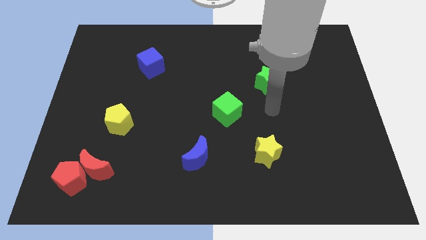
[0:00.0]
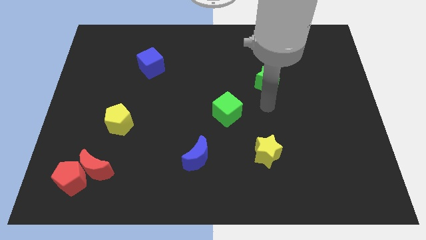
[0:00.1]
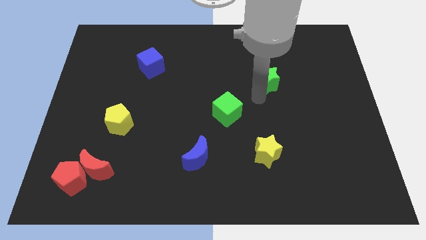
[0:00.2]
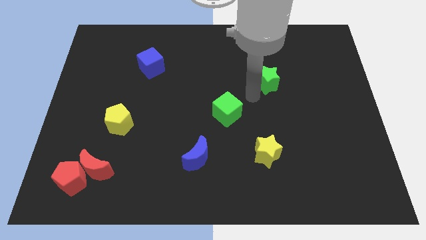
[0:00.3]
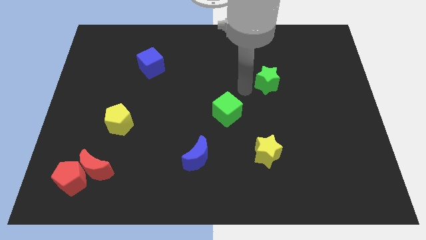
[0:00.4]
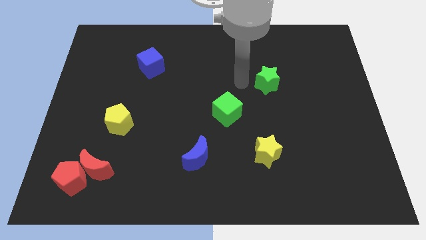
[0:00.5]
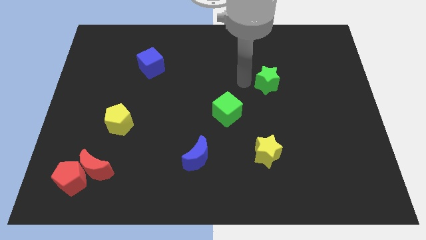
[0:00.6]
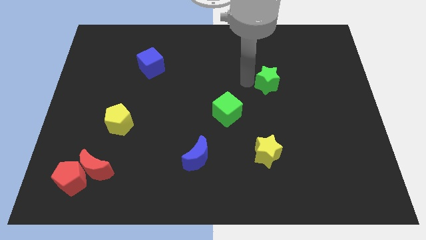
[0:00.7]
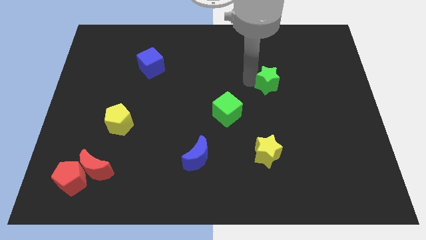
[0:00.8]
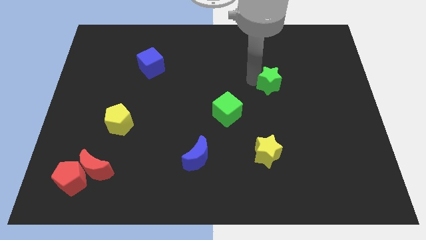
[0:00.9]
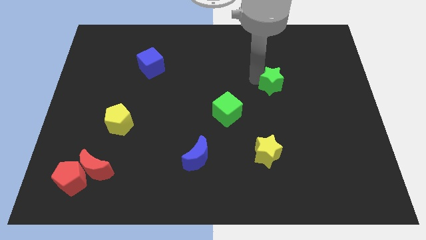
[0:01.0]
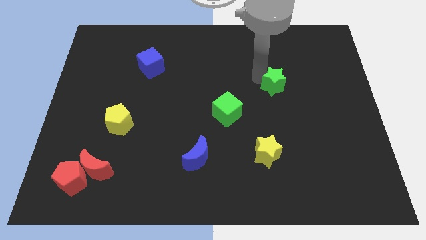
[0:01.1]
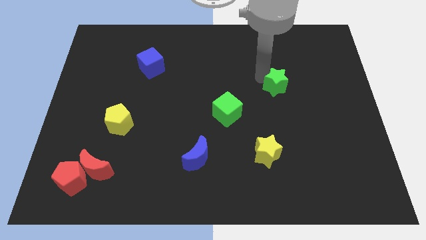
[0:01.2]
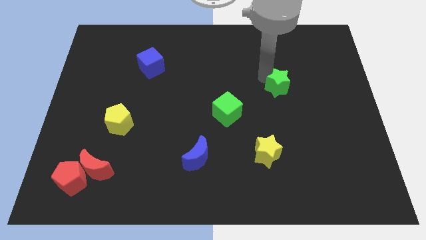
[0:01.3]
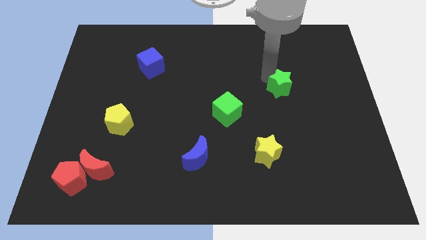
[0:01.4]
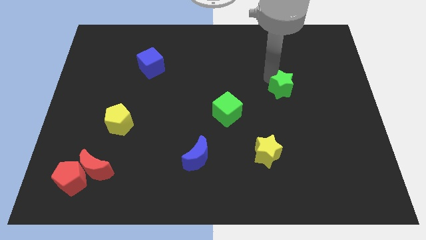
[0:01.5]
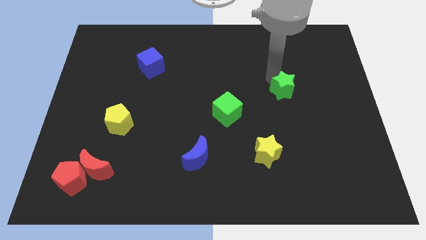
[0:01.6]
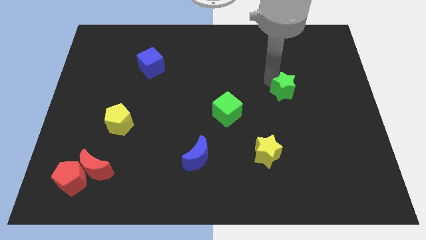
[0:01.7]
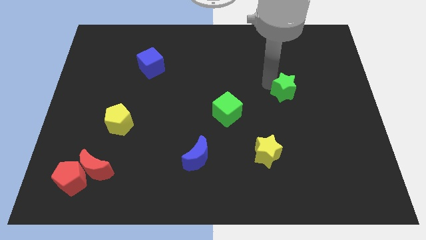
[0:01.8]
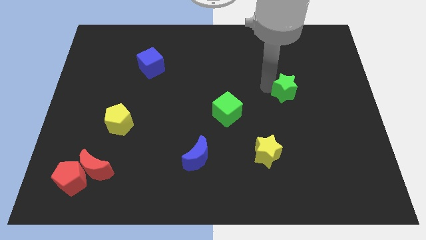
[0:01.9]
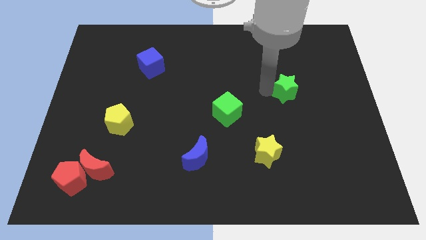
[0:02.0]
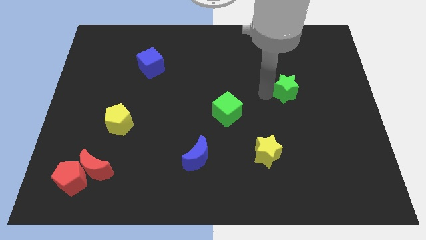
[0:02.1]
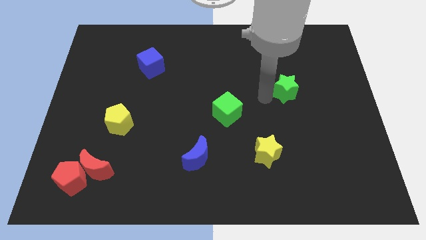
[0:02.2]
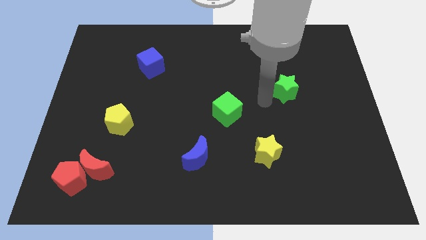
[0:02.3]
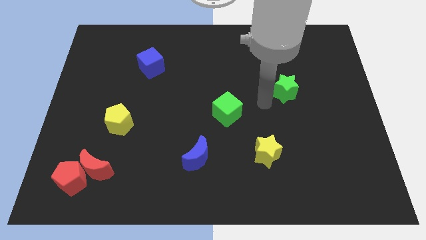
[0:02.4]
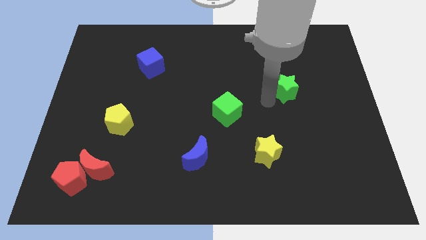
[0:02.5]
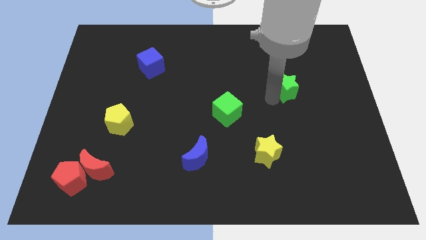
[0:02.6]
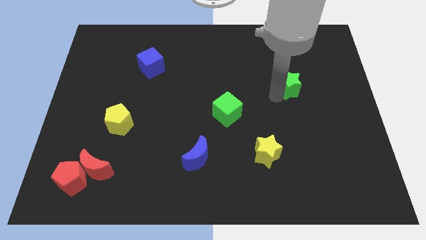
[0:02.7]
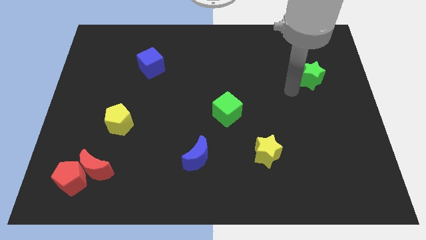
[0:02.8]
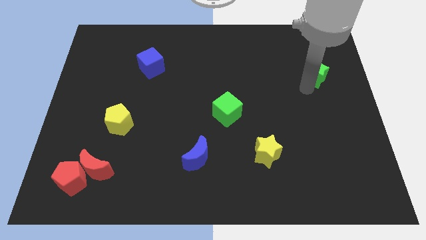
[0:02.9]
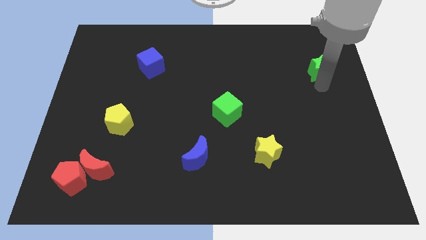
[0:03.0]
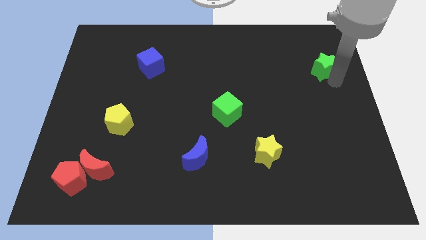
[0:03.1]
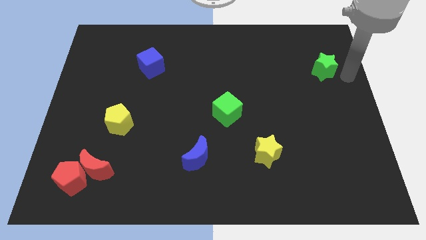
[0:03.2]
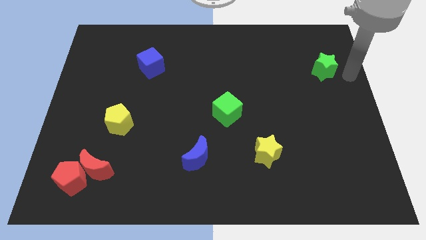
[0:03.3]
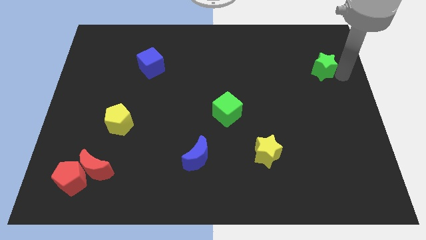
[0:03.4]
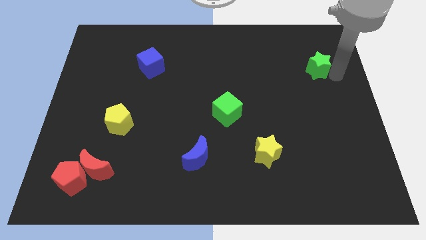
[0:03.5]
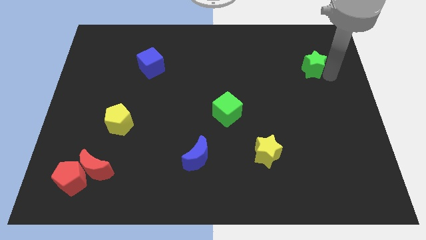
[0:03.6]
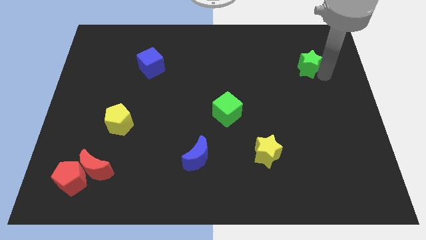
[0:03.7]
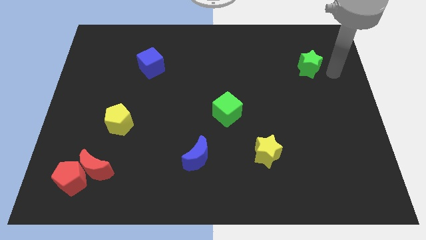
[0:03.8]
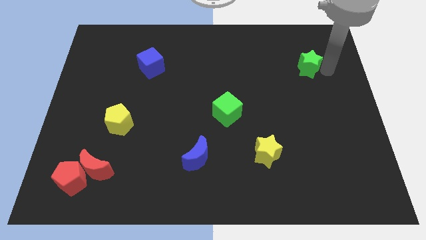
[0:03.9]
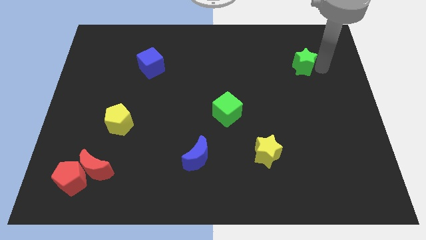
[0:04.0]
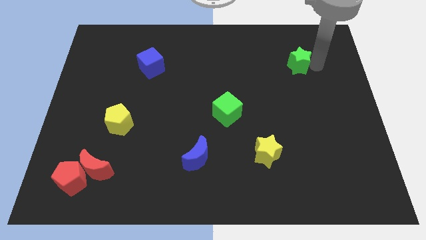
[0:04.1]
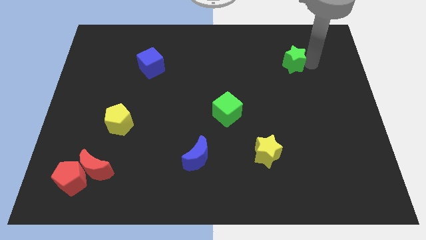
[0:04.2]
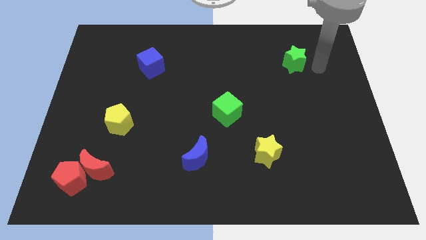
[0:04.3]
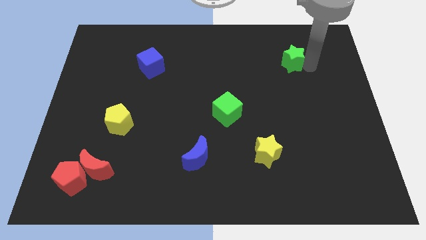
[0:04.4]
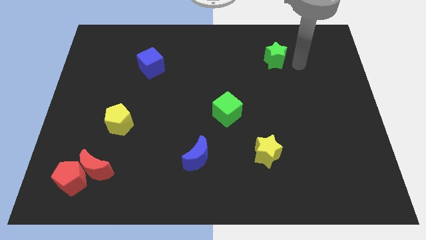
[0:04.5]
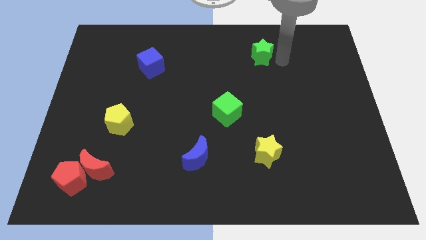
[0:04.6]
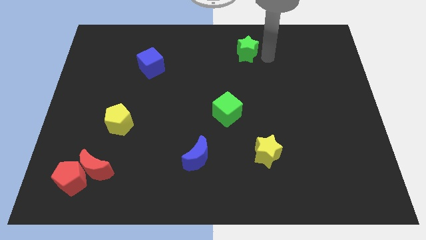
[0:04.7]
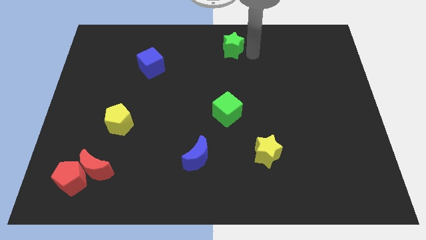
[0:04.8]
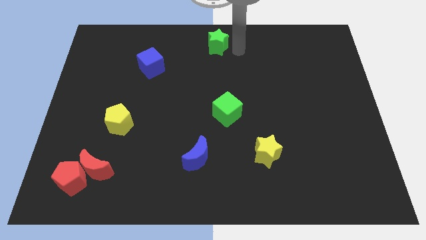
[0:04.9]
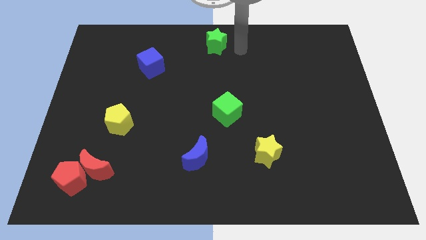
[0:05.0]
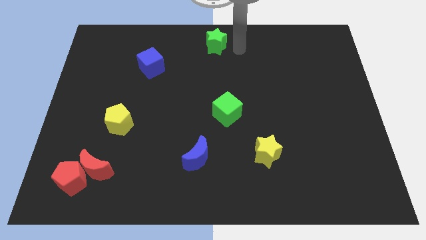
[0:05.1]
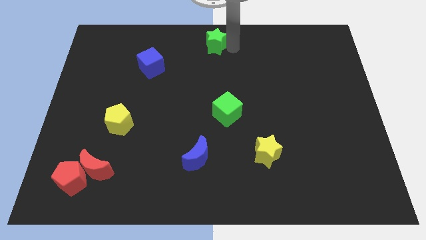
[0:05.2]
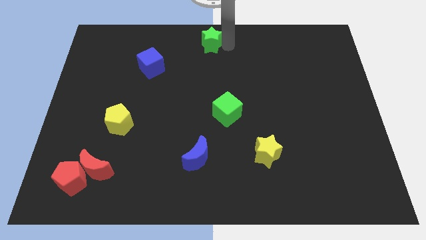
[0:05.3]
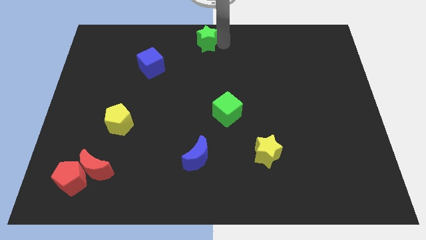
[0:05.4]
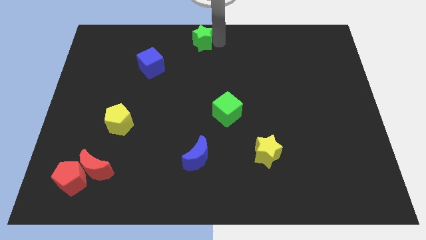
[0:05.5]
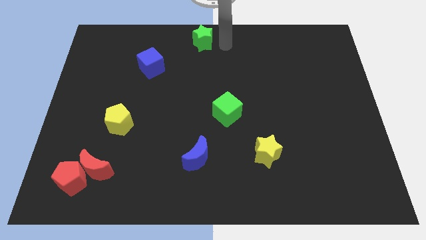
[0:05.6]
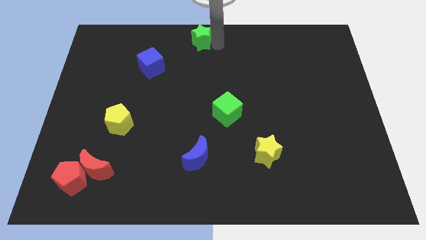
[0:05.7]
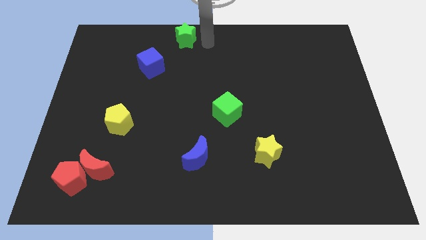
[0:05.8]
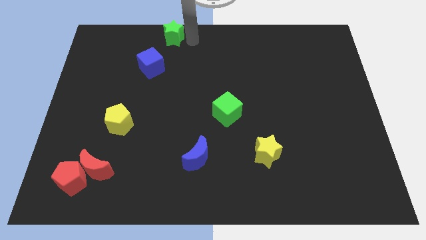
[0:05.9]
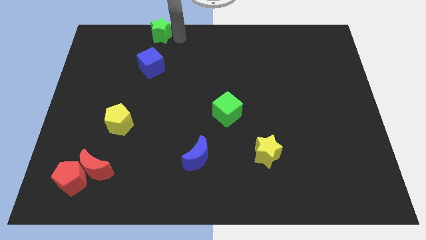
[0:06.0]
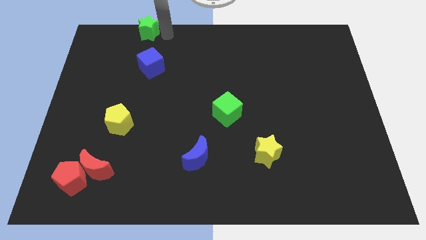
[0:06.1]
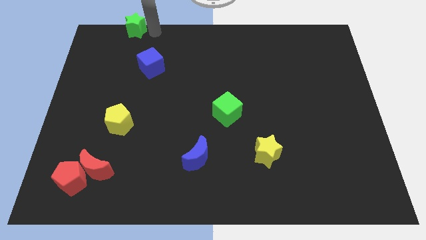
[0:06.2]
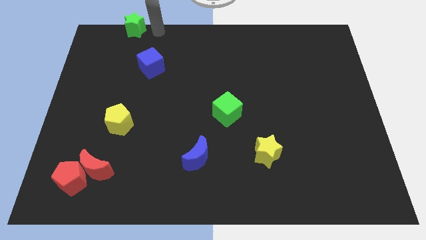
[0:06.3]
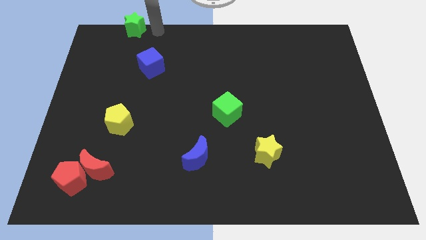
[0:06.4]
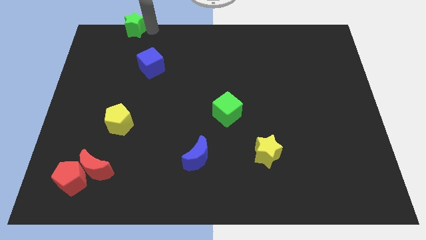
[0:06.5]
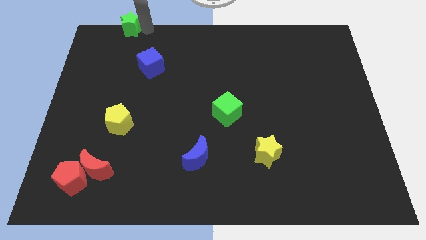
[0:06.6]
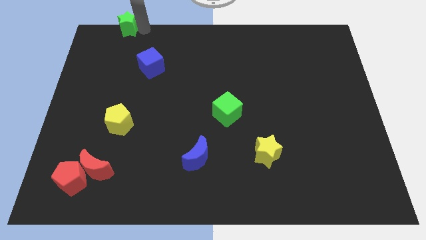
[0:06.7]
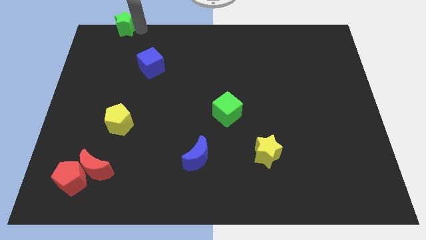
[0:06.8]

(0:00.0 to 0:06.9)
slide the green star to the top left corner

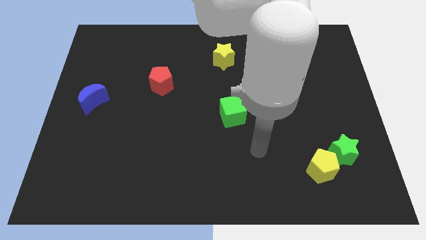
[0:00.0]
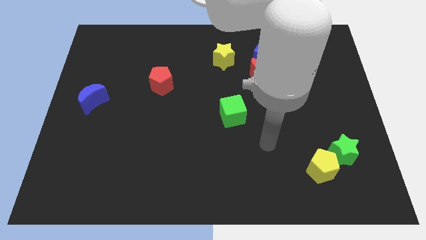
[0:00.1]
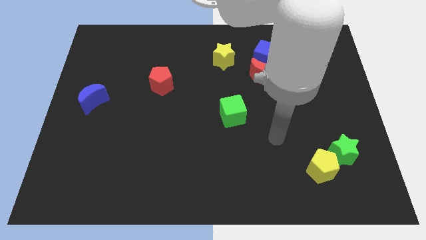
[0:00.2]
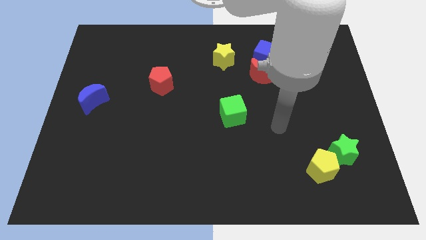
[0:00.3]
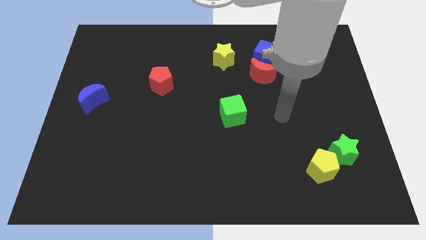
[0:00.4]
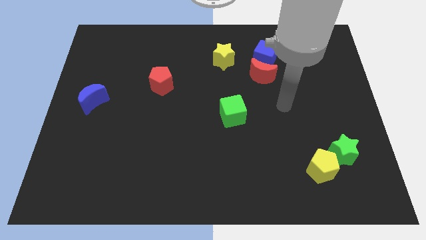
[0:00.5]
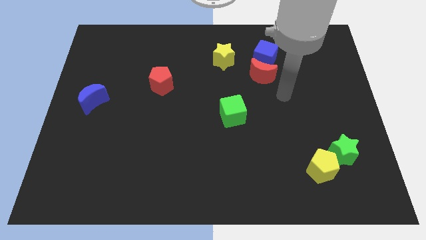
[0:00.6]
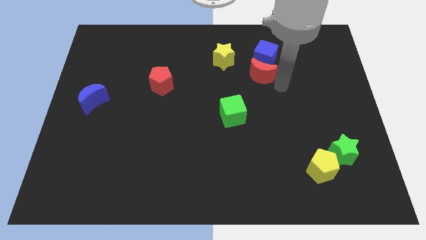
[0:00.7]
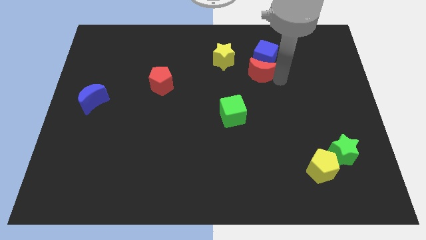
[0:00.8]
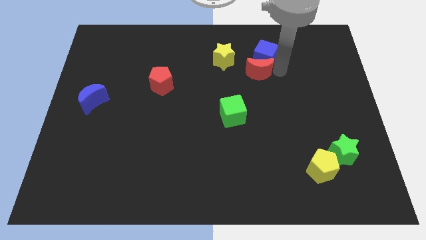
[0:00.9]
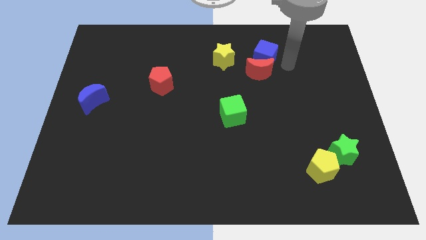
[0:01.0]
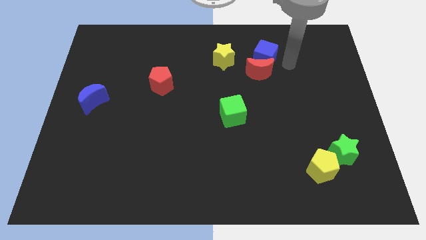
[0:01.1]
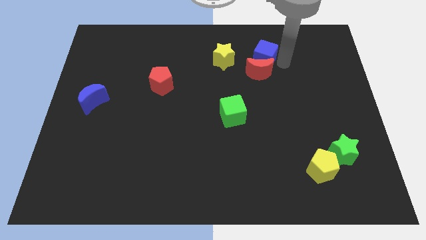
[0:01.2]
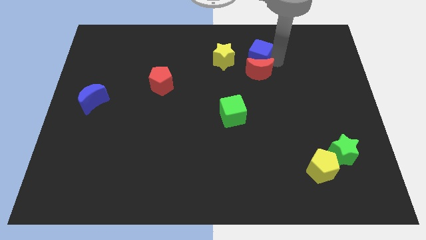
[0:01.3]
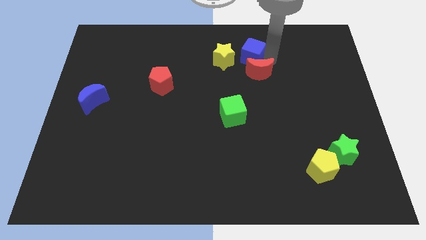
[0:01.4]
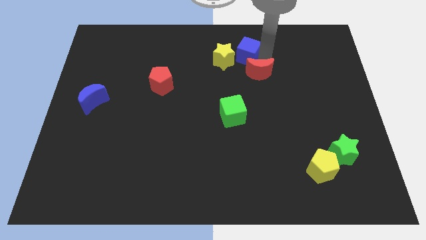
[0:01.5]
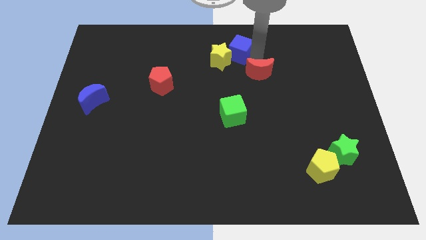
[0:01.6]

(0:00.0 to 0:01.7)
slide the blue cube to the top
